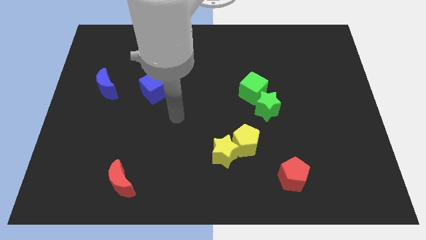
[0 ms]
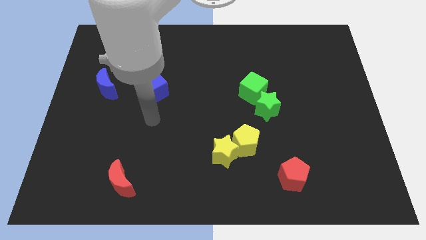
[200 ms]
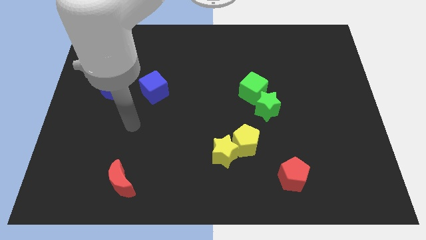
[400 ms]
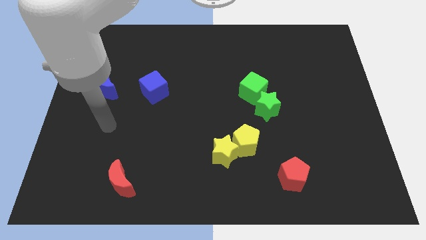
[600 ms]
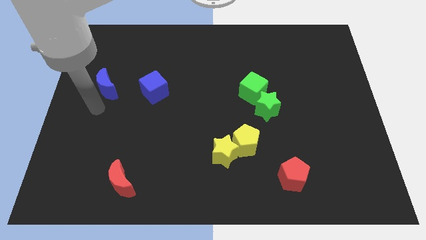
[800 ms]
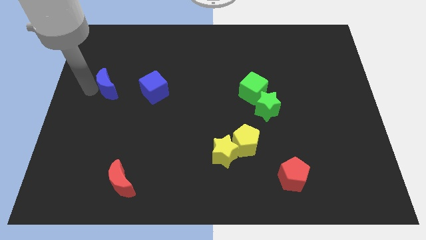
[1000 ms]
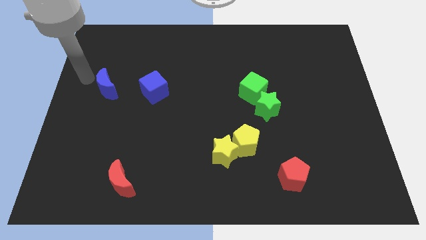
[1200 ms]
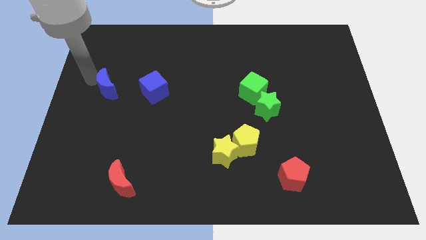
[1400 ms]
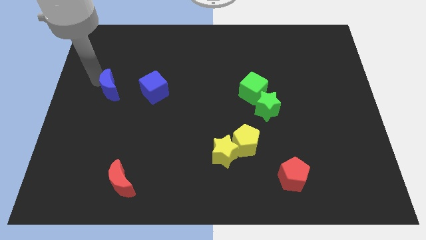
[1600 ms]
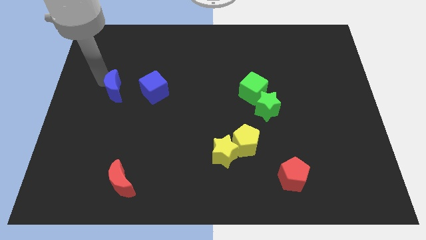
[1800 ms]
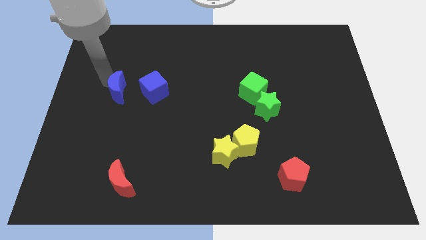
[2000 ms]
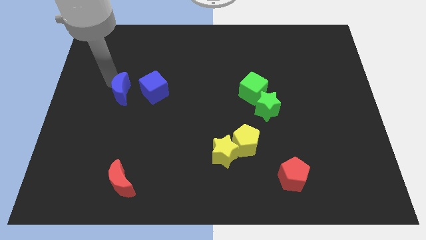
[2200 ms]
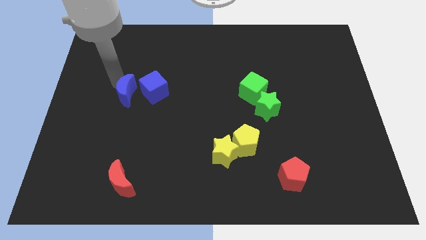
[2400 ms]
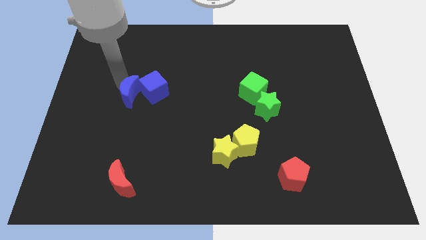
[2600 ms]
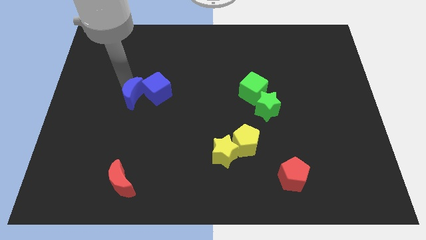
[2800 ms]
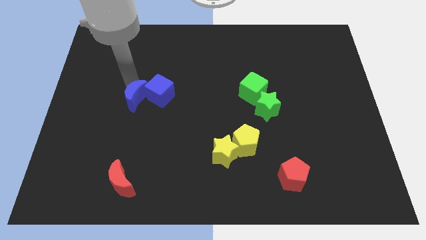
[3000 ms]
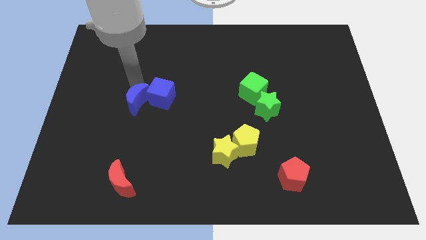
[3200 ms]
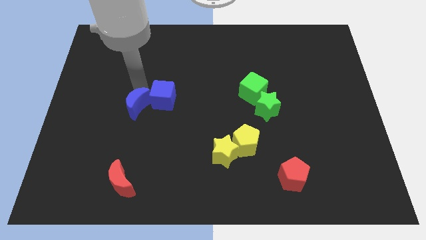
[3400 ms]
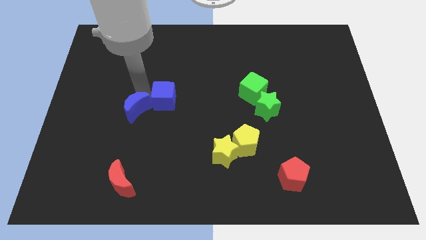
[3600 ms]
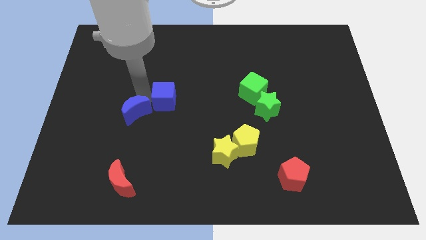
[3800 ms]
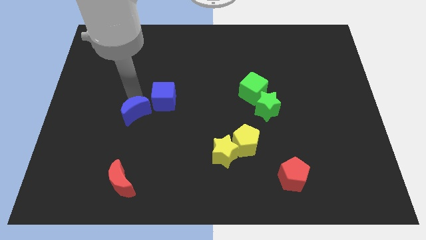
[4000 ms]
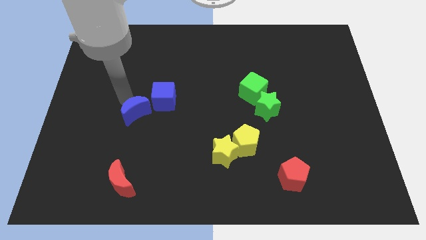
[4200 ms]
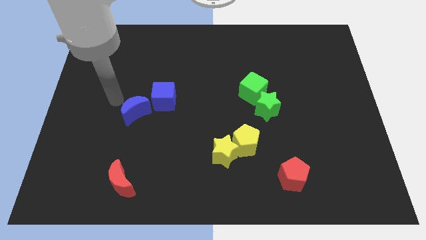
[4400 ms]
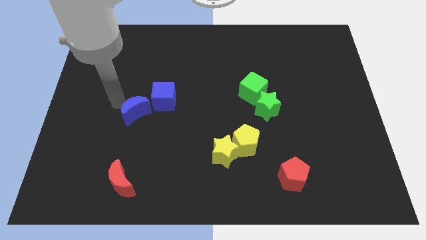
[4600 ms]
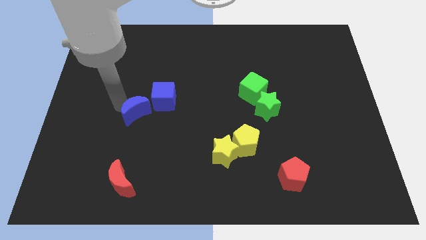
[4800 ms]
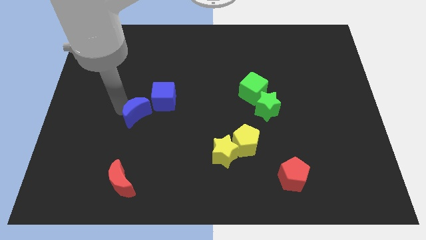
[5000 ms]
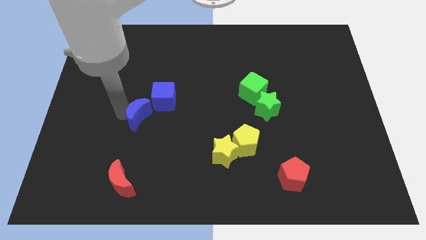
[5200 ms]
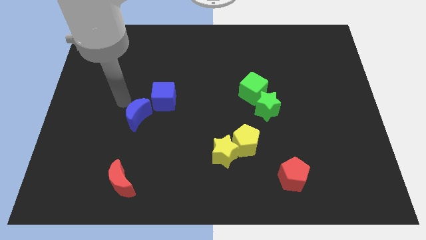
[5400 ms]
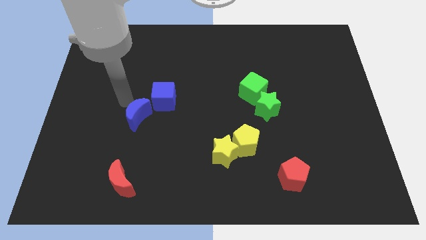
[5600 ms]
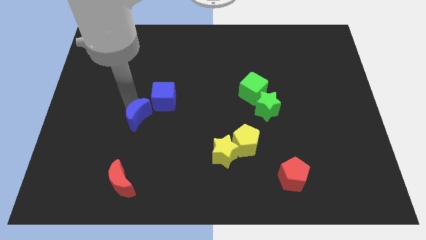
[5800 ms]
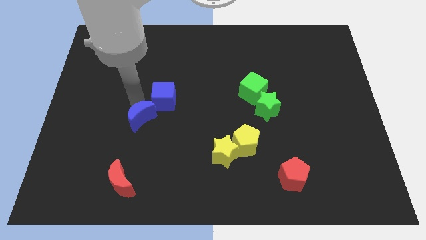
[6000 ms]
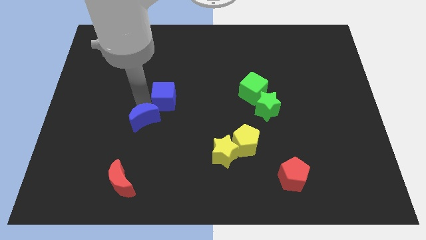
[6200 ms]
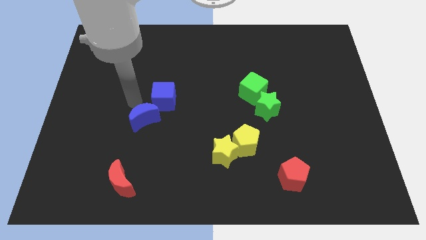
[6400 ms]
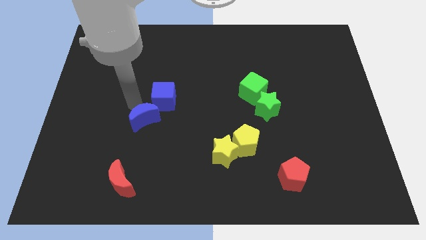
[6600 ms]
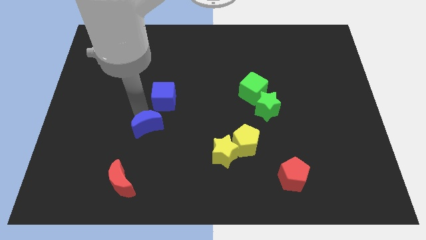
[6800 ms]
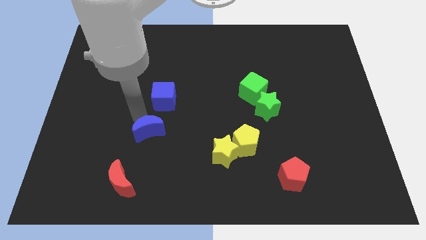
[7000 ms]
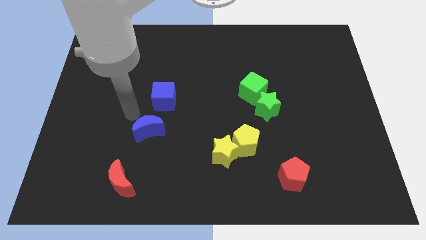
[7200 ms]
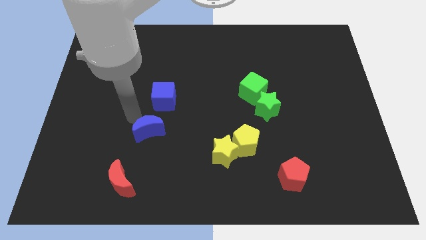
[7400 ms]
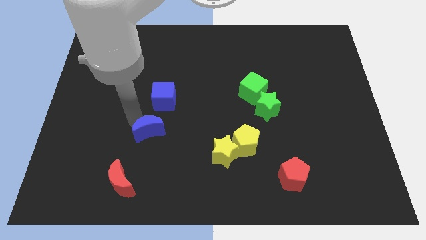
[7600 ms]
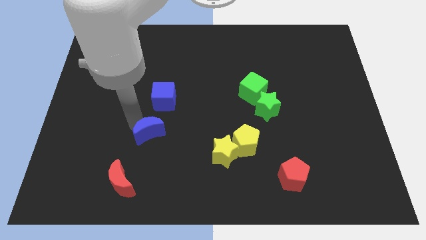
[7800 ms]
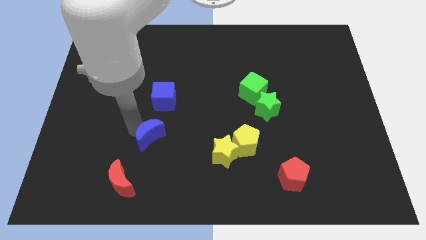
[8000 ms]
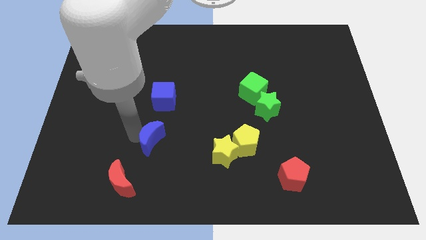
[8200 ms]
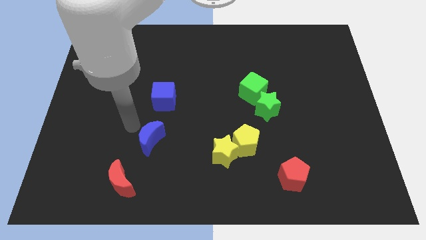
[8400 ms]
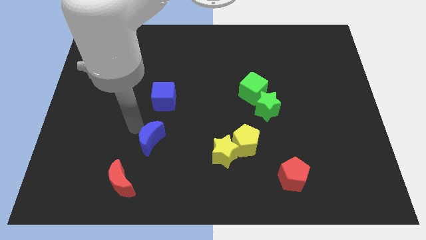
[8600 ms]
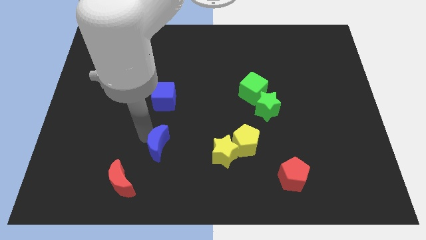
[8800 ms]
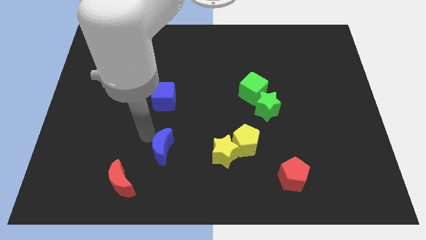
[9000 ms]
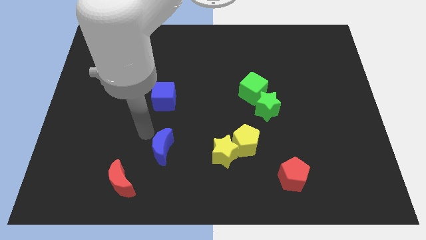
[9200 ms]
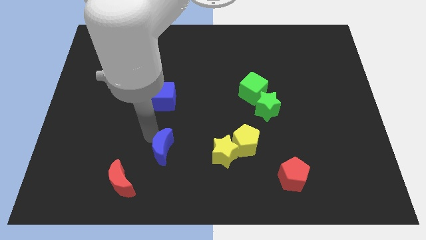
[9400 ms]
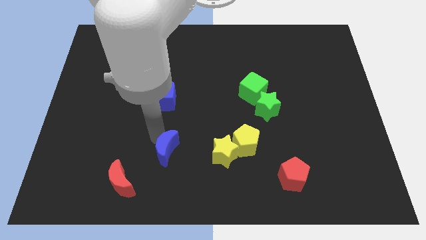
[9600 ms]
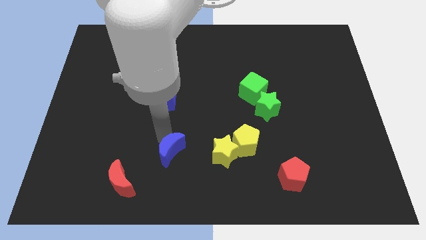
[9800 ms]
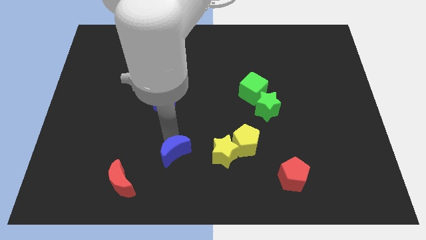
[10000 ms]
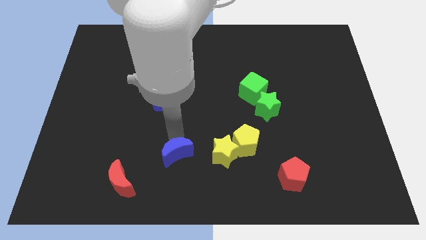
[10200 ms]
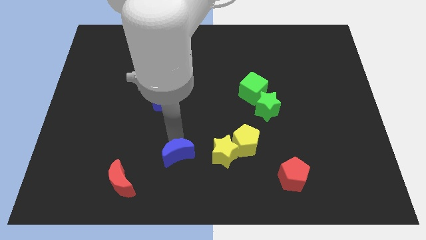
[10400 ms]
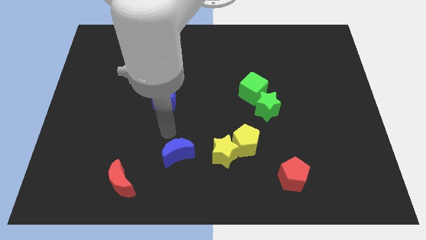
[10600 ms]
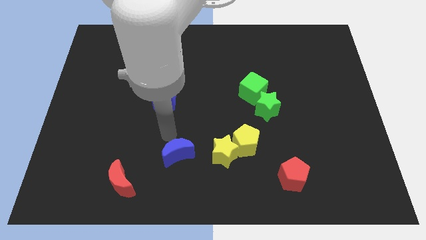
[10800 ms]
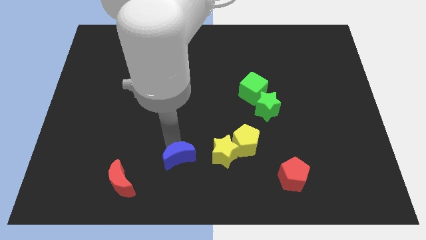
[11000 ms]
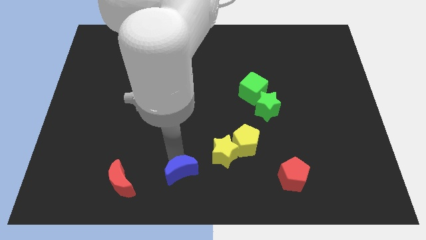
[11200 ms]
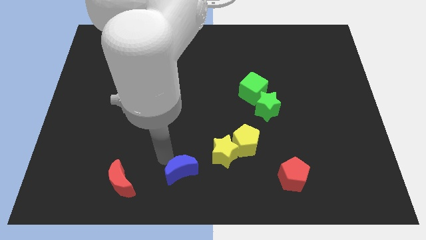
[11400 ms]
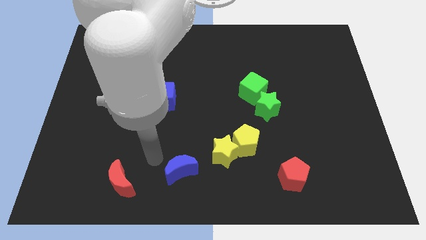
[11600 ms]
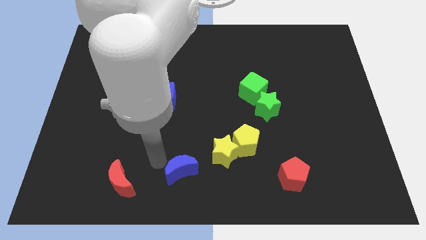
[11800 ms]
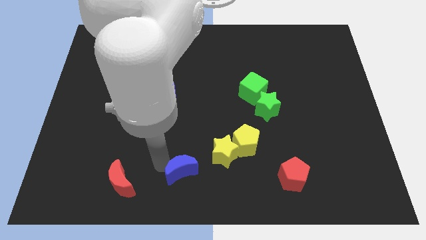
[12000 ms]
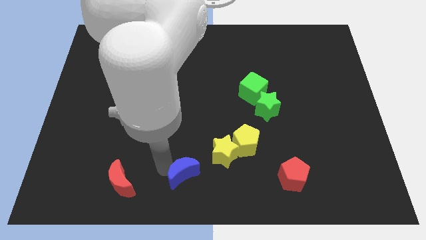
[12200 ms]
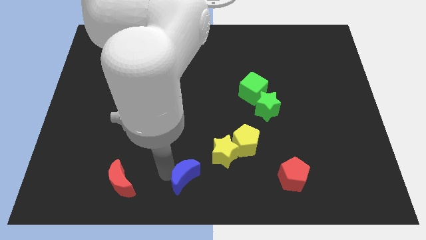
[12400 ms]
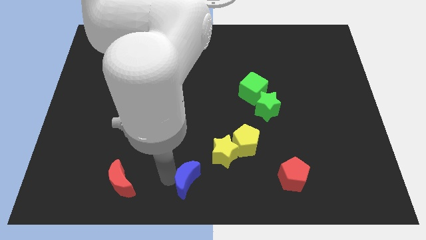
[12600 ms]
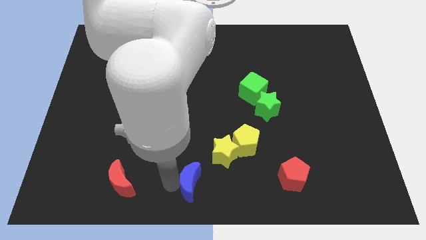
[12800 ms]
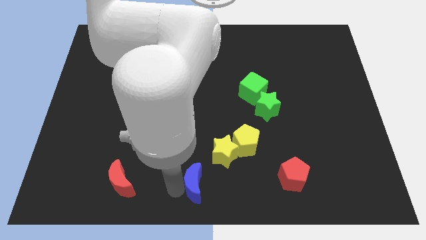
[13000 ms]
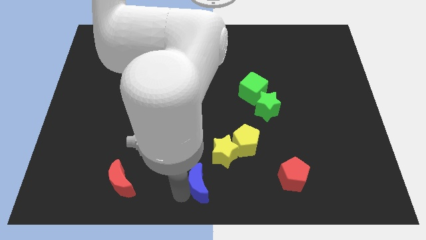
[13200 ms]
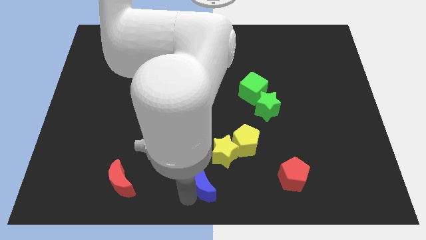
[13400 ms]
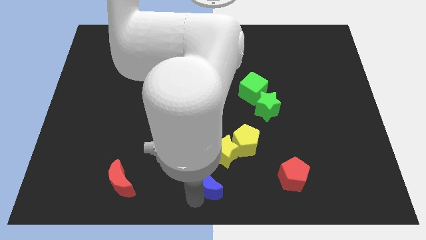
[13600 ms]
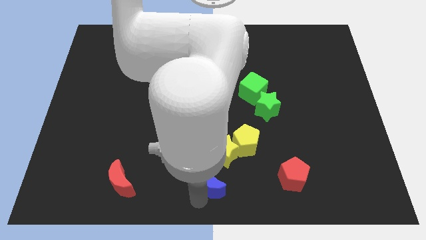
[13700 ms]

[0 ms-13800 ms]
push the blue moon to the bottom left of the yellow pentagon

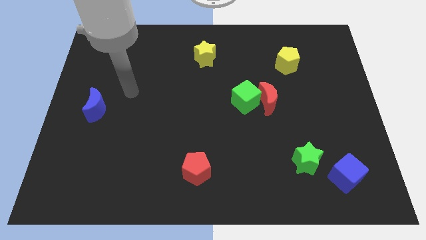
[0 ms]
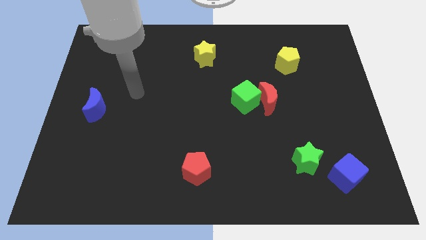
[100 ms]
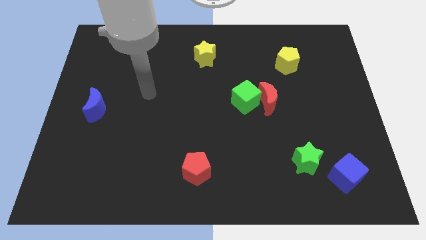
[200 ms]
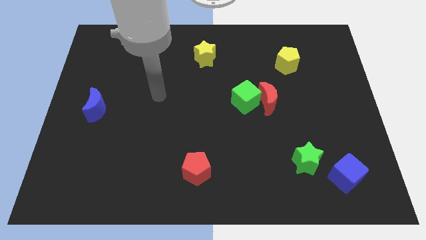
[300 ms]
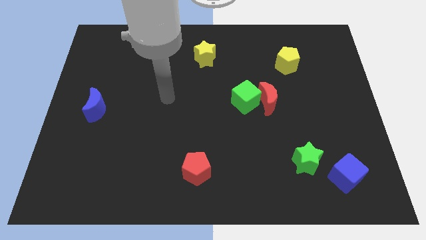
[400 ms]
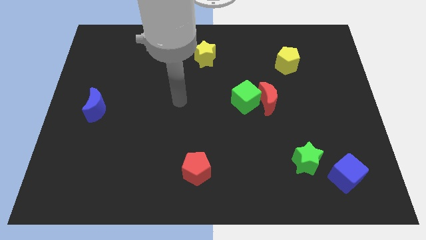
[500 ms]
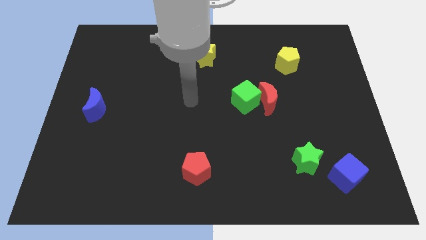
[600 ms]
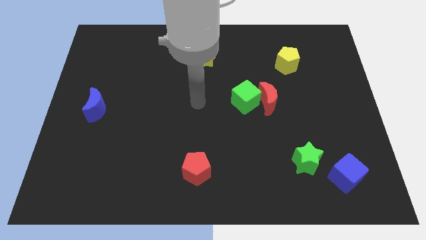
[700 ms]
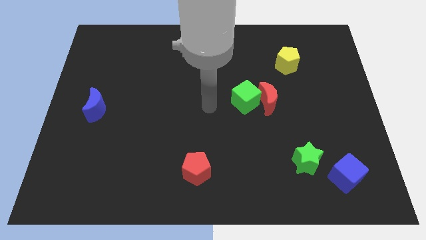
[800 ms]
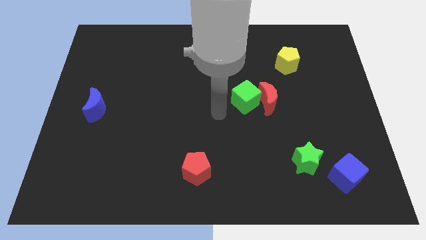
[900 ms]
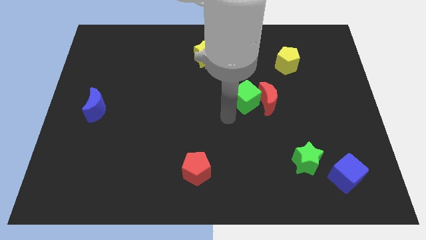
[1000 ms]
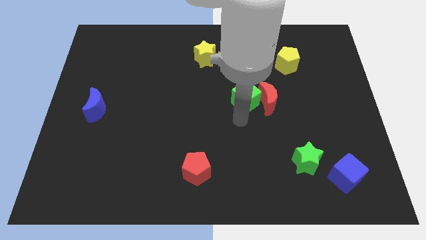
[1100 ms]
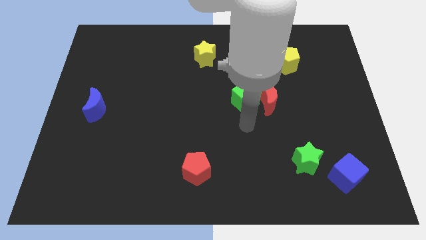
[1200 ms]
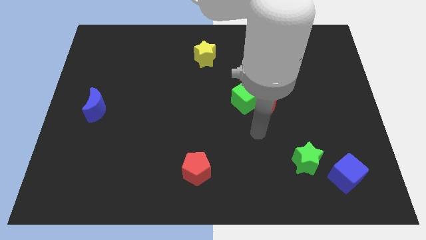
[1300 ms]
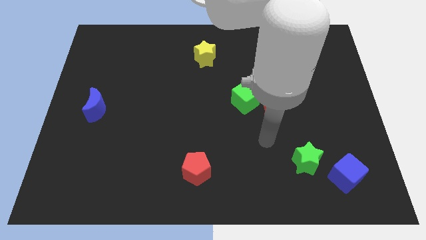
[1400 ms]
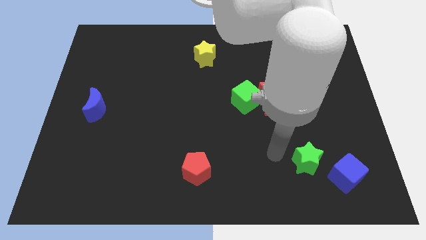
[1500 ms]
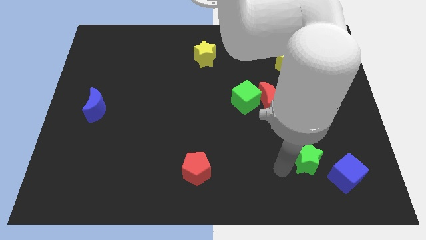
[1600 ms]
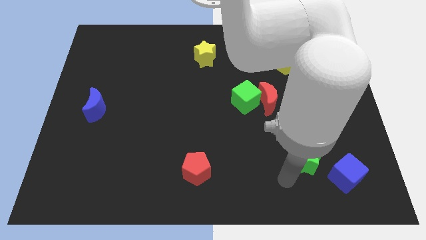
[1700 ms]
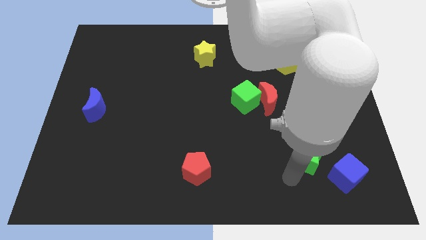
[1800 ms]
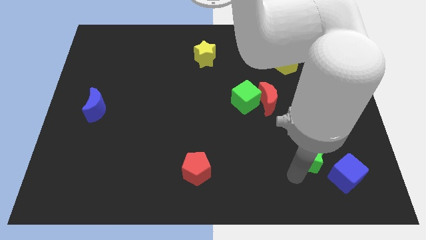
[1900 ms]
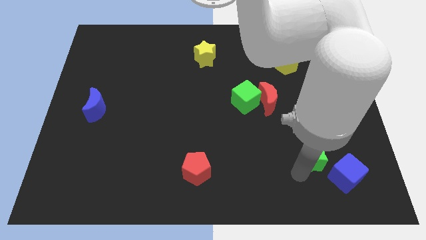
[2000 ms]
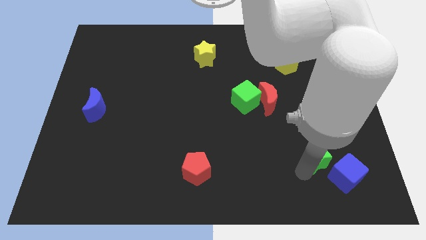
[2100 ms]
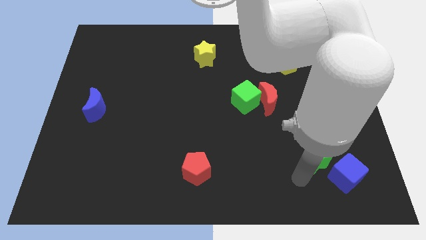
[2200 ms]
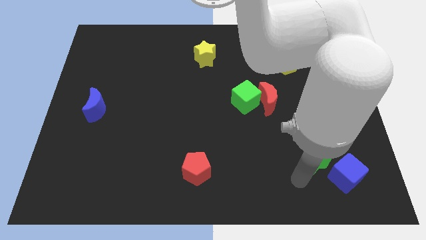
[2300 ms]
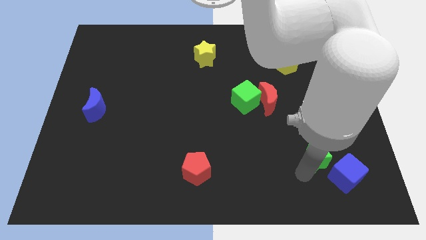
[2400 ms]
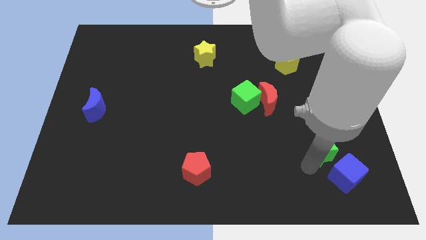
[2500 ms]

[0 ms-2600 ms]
push the green star to the top of the blue cube
